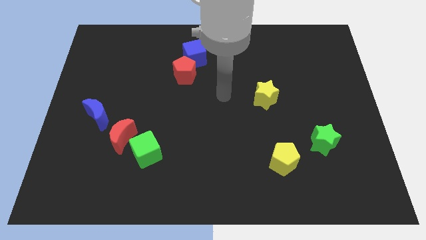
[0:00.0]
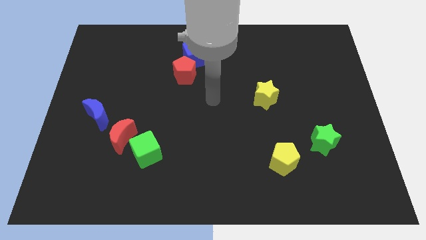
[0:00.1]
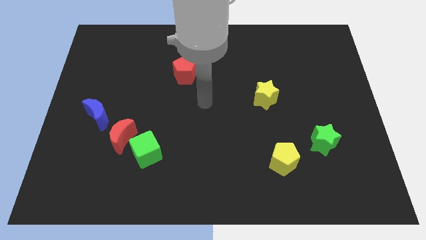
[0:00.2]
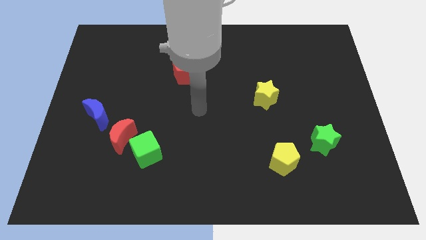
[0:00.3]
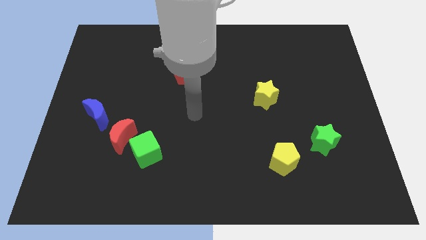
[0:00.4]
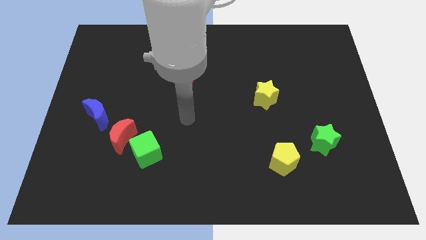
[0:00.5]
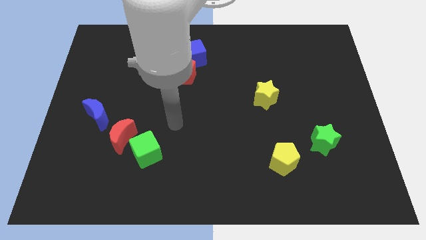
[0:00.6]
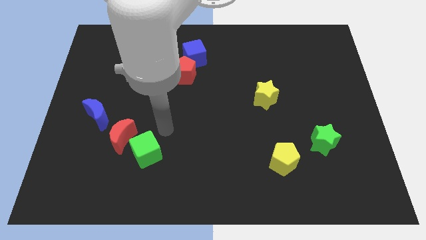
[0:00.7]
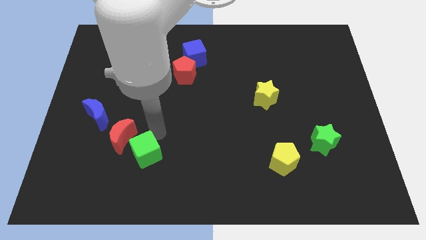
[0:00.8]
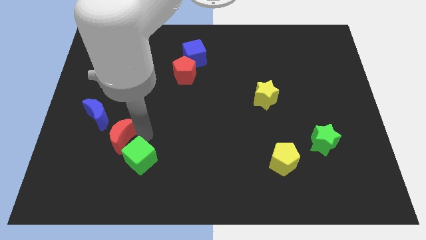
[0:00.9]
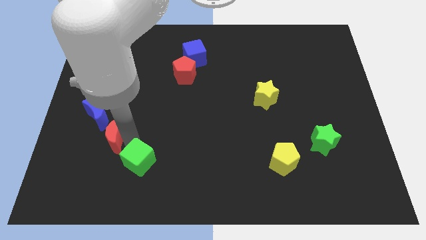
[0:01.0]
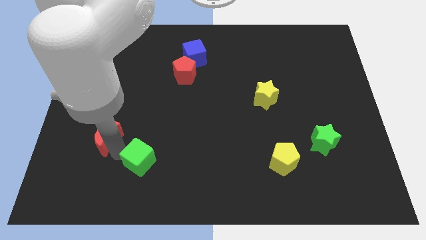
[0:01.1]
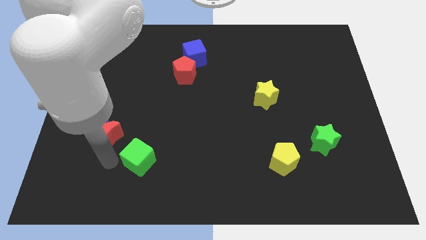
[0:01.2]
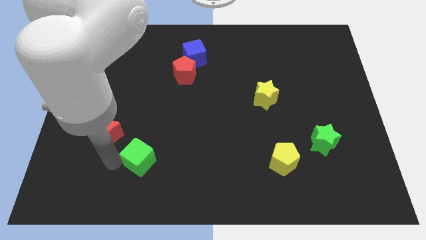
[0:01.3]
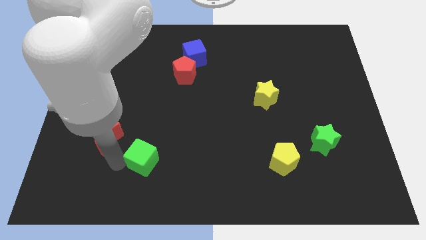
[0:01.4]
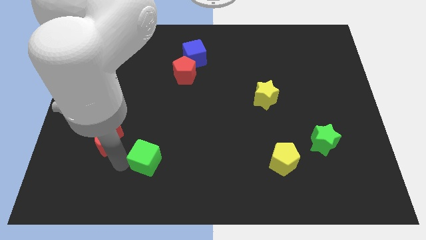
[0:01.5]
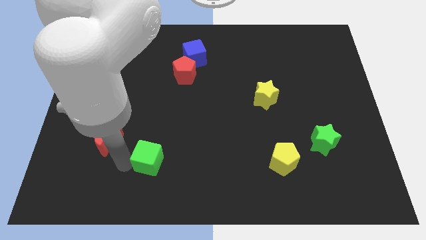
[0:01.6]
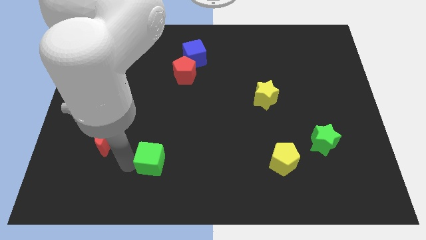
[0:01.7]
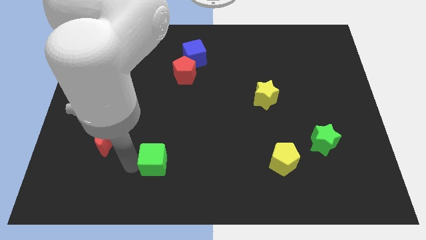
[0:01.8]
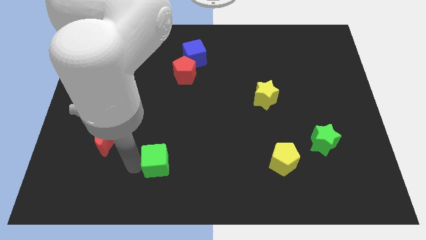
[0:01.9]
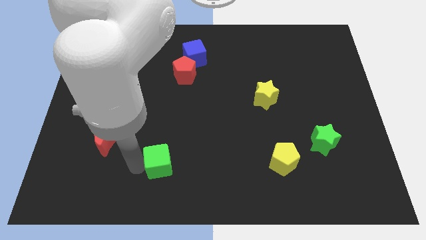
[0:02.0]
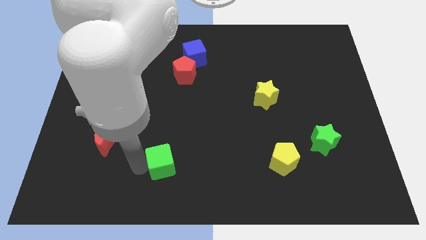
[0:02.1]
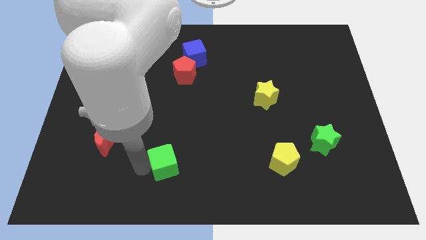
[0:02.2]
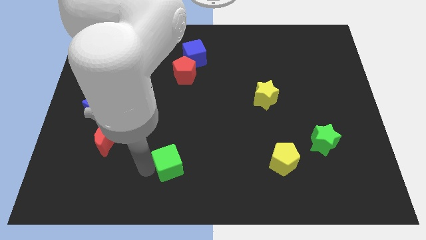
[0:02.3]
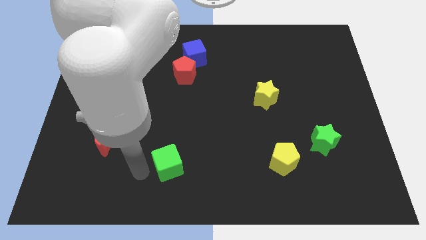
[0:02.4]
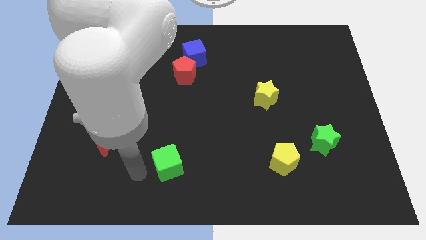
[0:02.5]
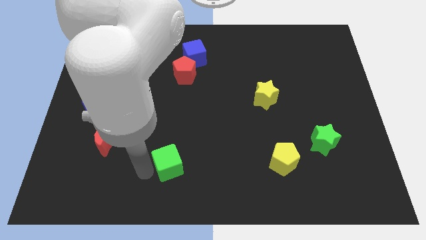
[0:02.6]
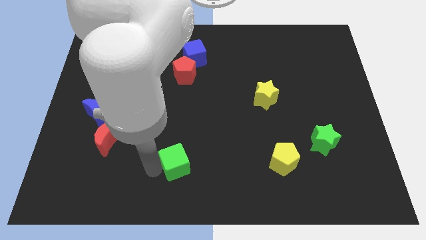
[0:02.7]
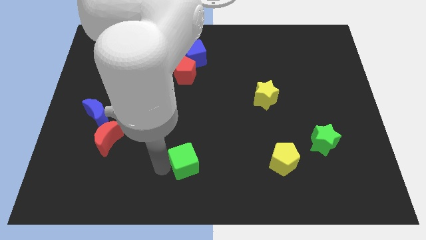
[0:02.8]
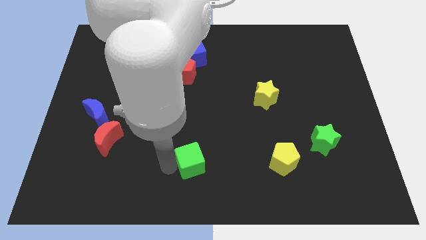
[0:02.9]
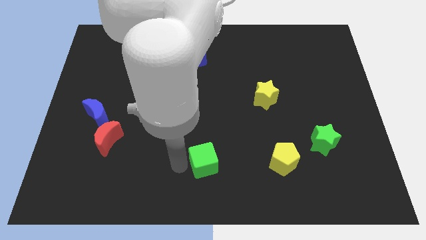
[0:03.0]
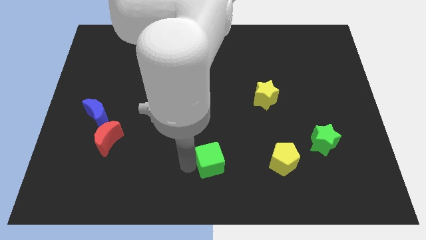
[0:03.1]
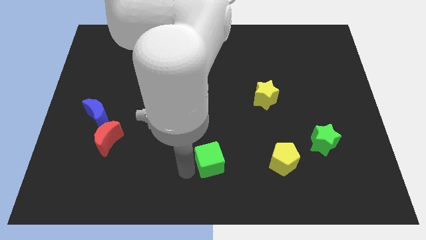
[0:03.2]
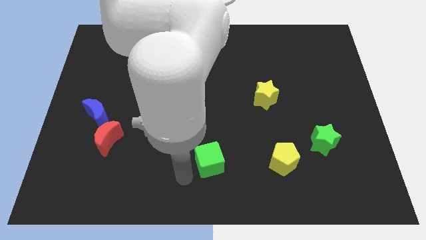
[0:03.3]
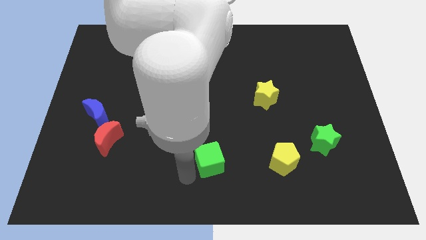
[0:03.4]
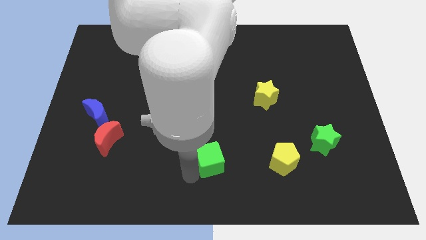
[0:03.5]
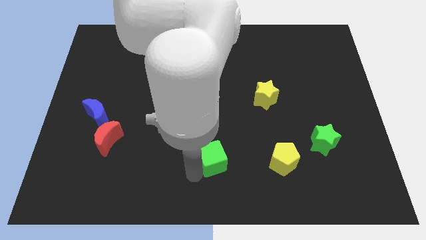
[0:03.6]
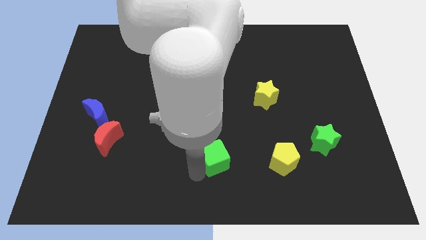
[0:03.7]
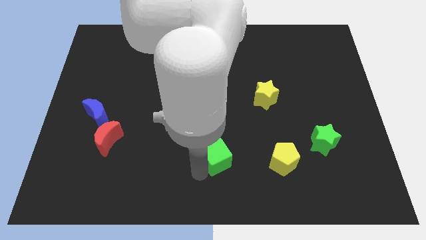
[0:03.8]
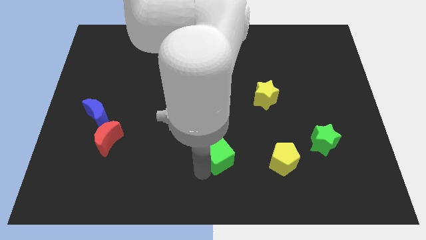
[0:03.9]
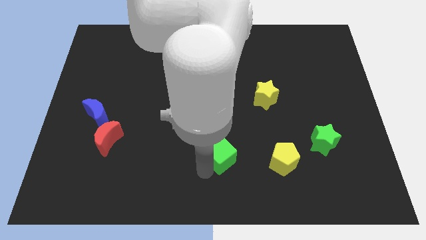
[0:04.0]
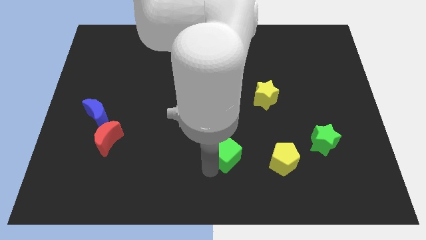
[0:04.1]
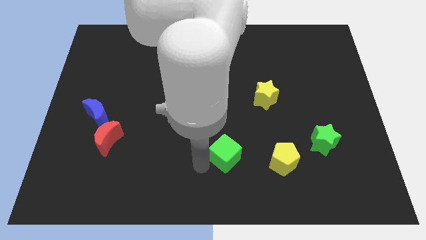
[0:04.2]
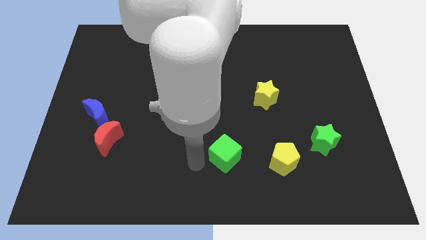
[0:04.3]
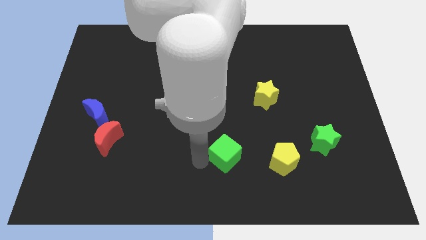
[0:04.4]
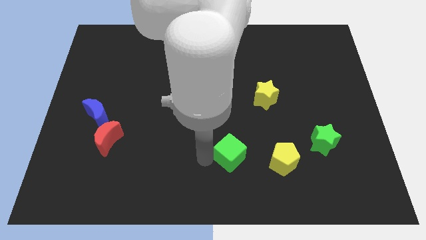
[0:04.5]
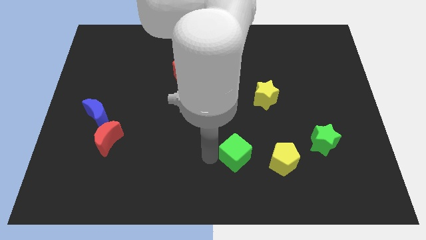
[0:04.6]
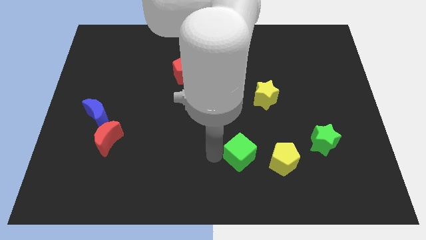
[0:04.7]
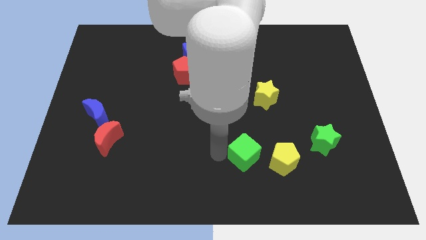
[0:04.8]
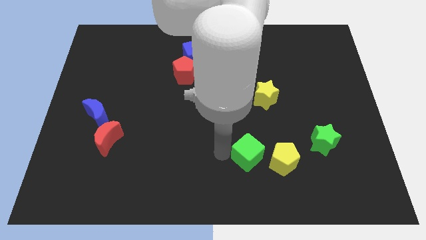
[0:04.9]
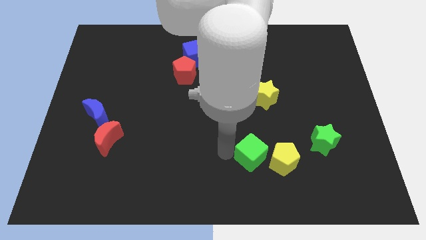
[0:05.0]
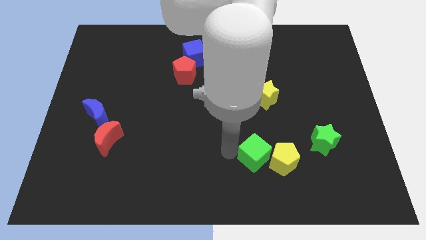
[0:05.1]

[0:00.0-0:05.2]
move the green cube just left of the green star

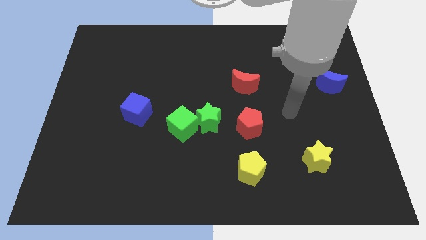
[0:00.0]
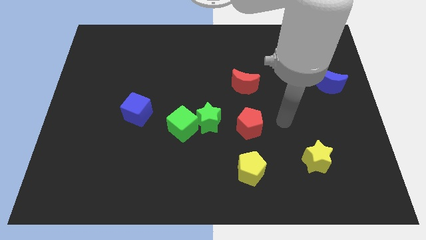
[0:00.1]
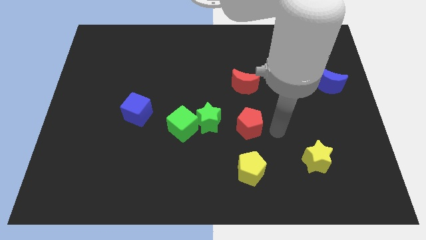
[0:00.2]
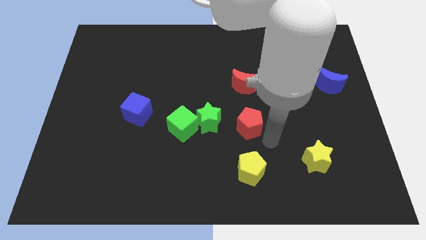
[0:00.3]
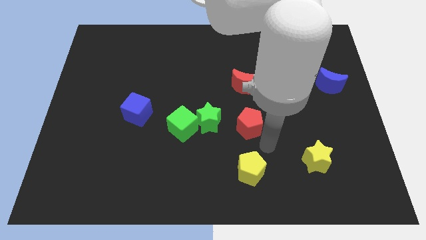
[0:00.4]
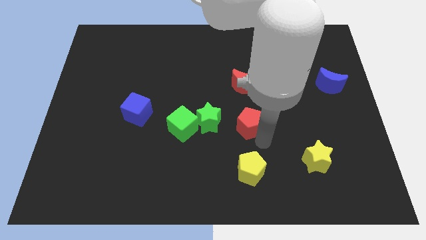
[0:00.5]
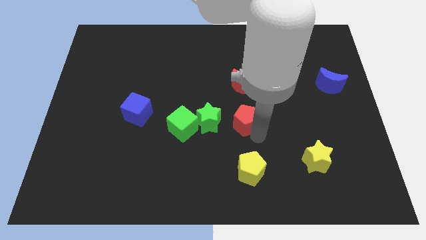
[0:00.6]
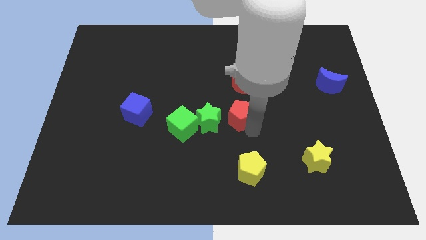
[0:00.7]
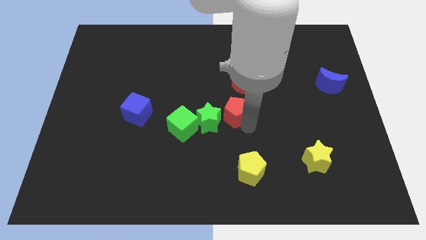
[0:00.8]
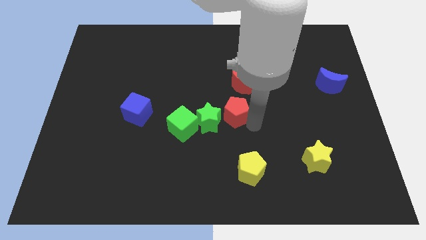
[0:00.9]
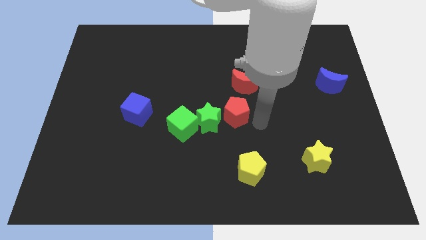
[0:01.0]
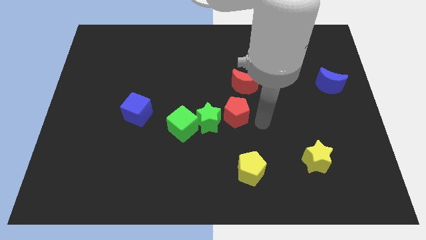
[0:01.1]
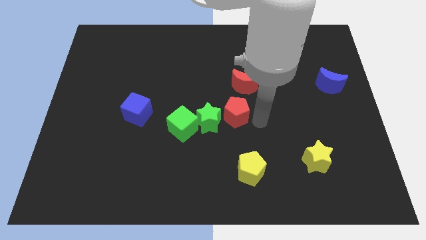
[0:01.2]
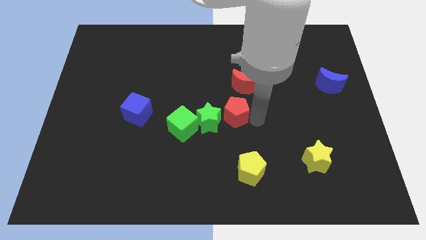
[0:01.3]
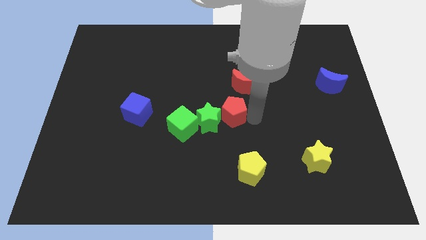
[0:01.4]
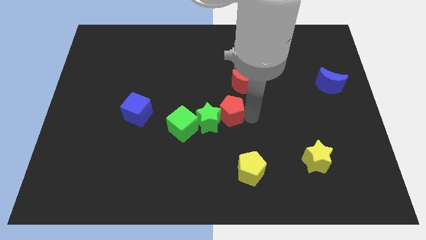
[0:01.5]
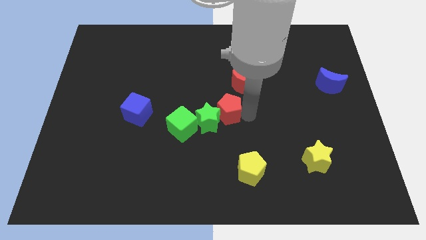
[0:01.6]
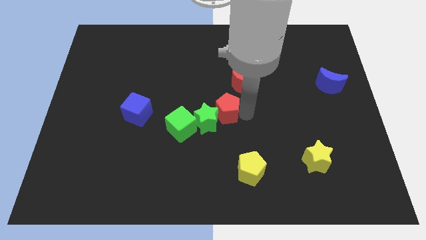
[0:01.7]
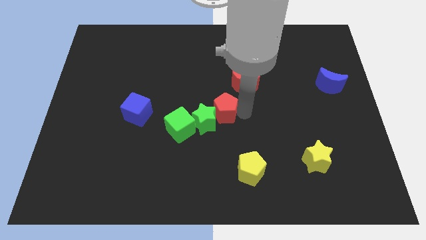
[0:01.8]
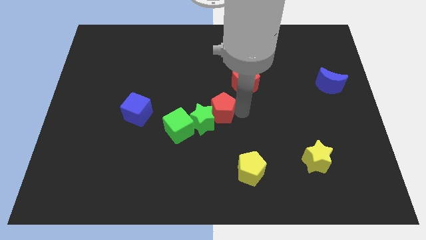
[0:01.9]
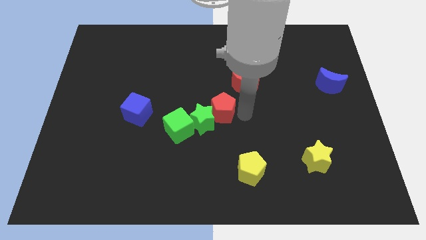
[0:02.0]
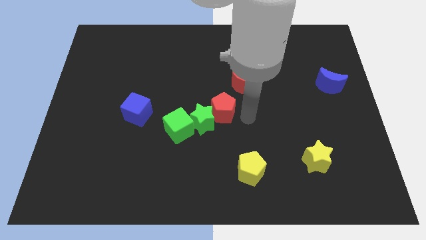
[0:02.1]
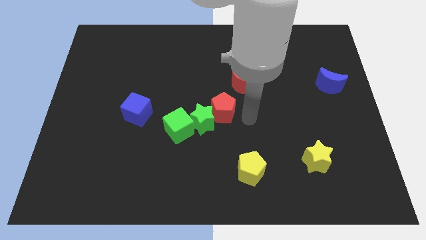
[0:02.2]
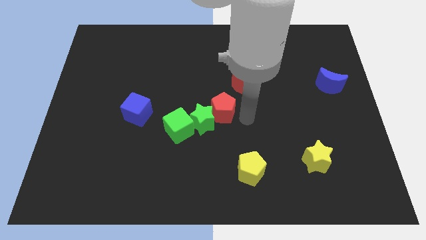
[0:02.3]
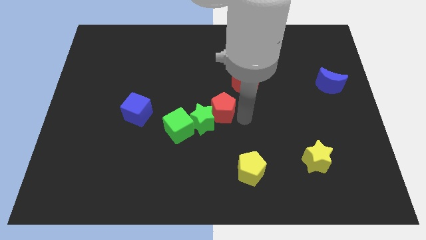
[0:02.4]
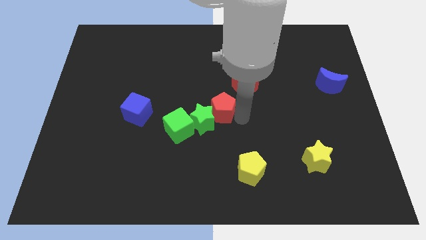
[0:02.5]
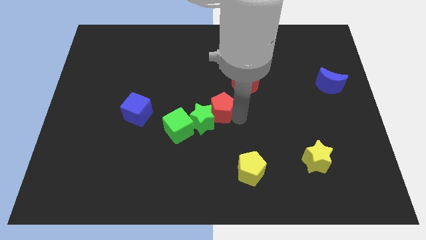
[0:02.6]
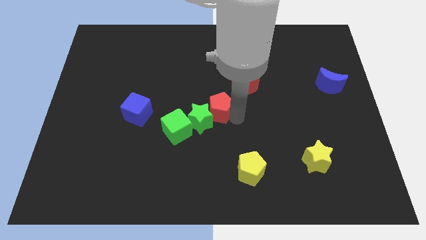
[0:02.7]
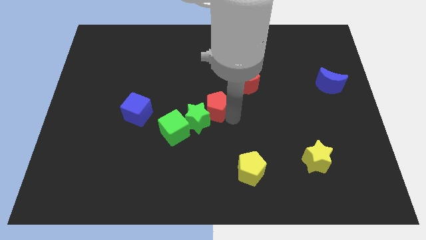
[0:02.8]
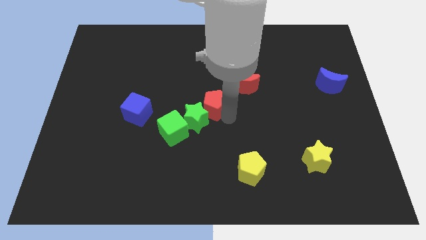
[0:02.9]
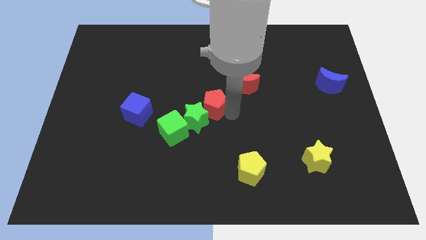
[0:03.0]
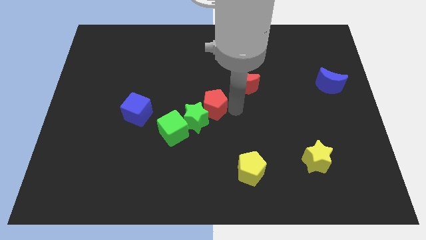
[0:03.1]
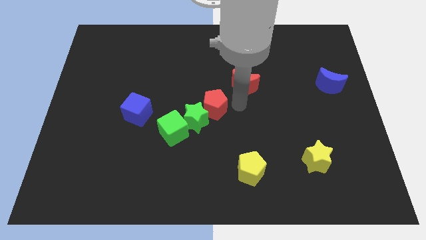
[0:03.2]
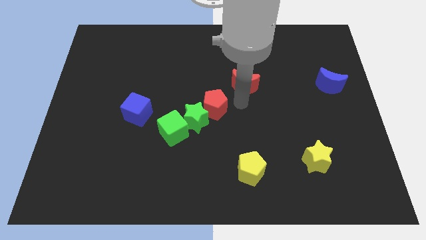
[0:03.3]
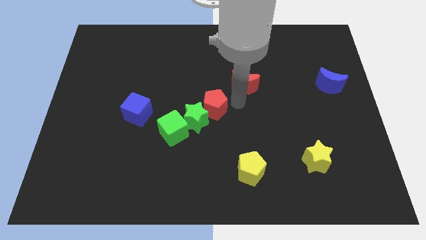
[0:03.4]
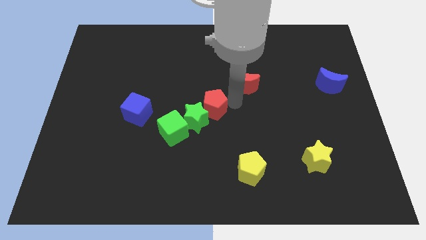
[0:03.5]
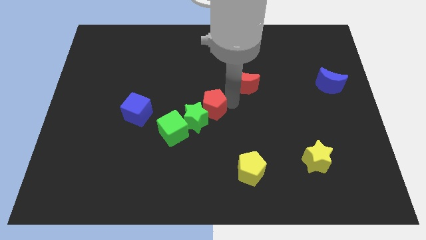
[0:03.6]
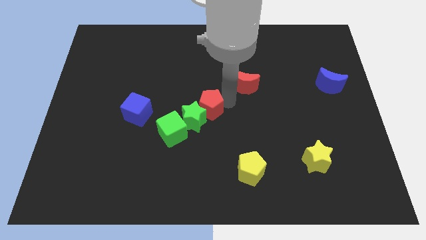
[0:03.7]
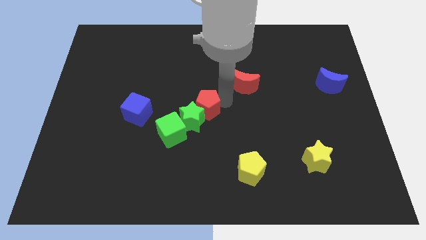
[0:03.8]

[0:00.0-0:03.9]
move the red pentagon to the right side of the blue cube
